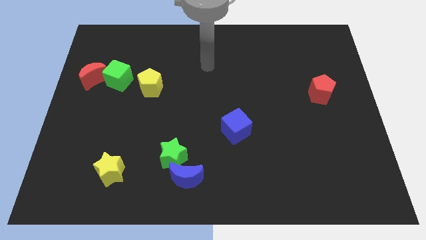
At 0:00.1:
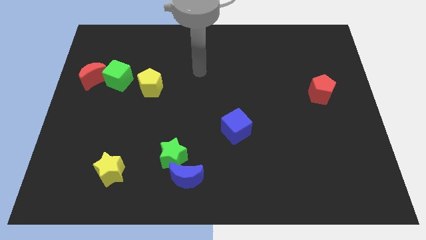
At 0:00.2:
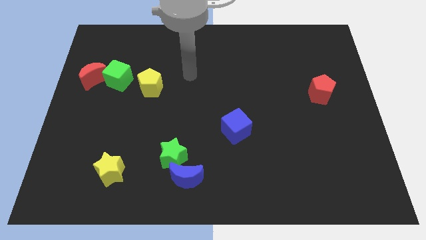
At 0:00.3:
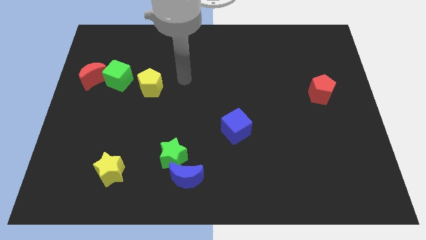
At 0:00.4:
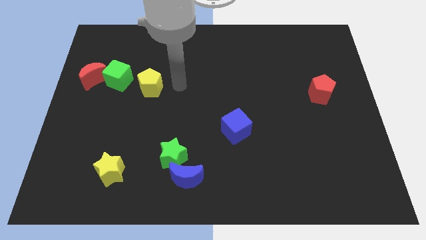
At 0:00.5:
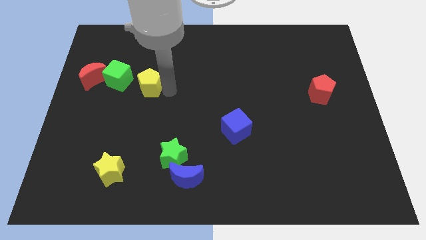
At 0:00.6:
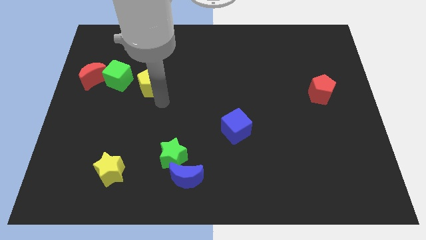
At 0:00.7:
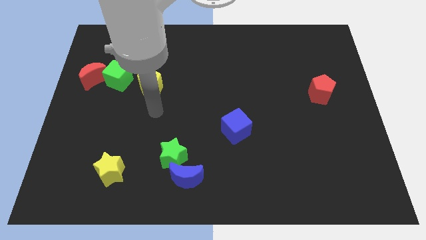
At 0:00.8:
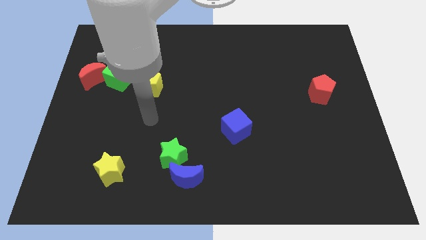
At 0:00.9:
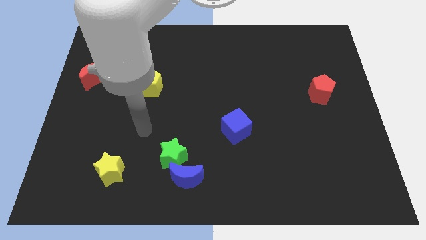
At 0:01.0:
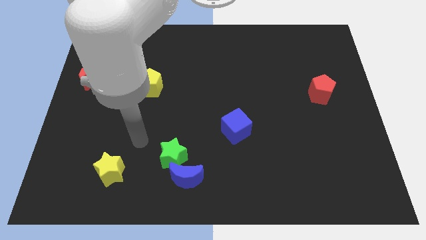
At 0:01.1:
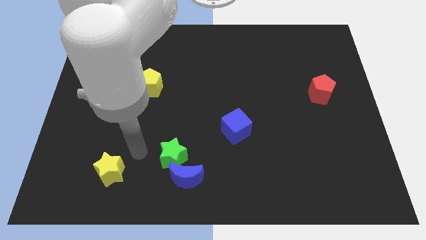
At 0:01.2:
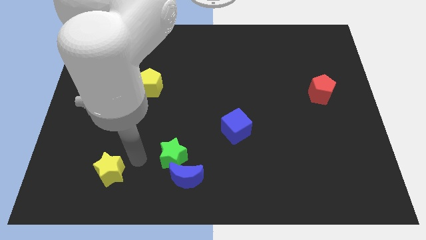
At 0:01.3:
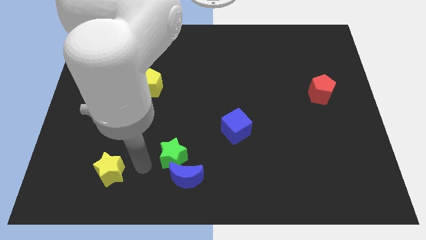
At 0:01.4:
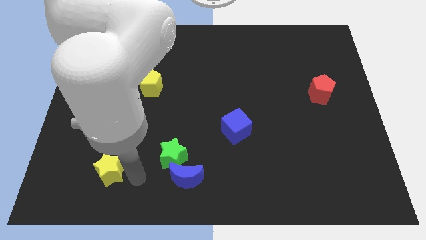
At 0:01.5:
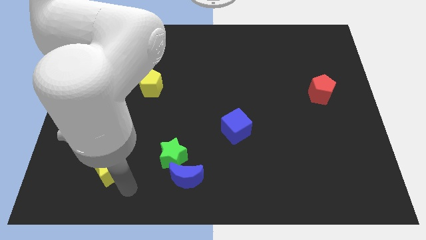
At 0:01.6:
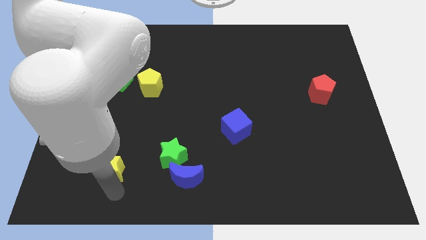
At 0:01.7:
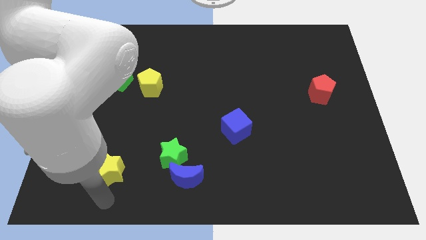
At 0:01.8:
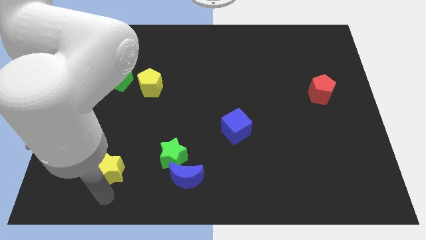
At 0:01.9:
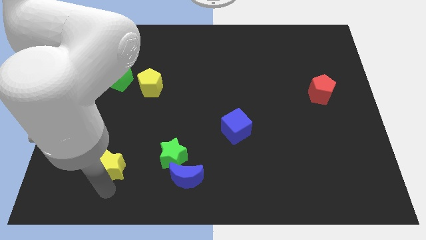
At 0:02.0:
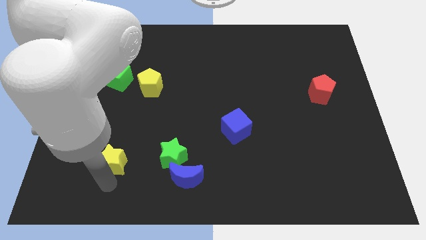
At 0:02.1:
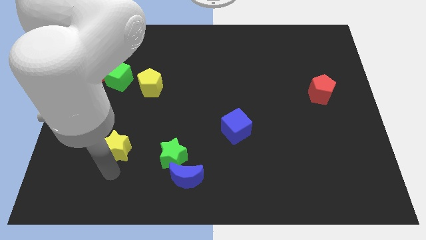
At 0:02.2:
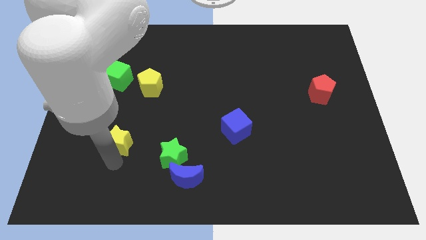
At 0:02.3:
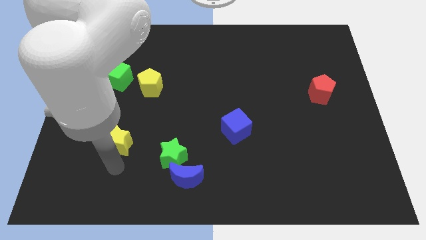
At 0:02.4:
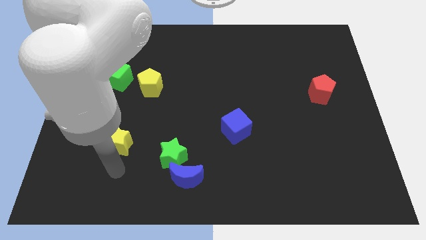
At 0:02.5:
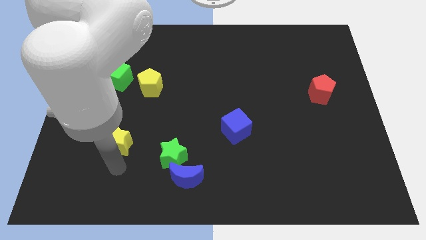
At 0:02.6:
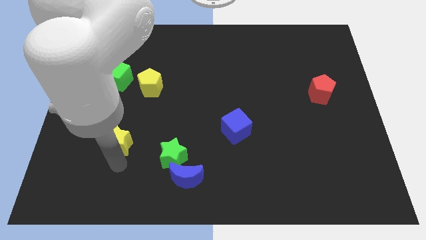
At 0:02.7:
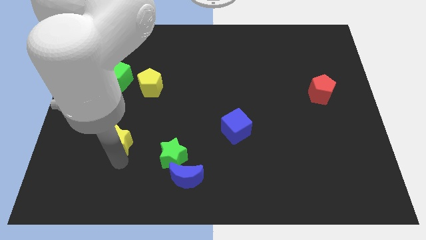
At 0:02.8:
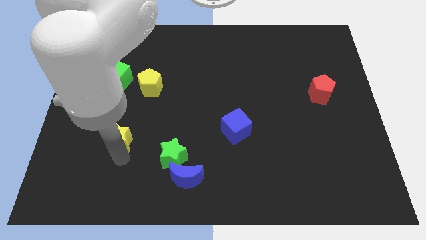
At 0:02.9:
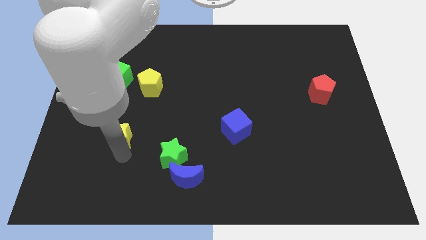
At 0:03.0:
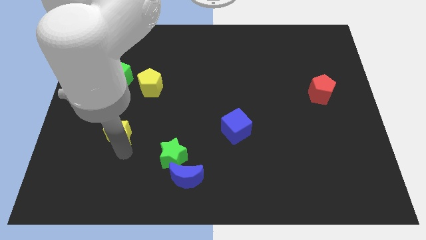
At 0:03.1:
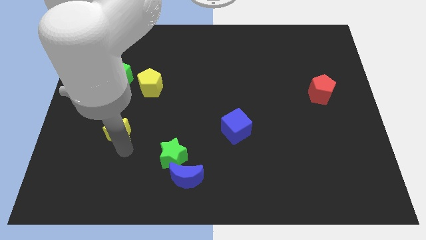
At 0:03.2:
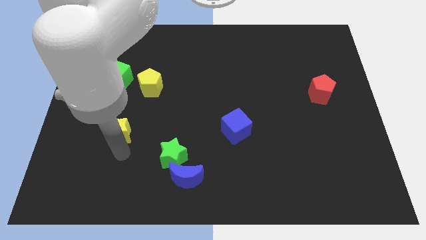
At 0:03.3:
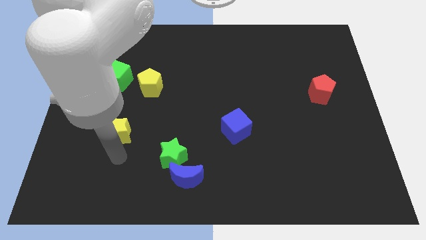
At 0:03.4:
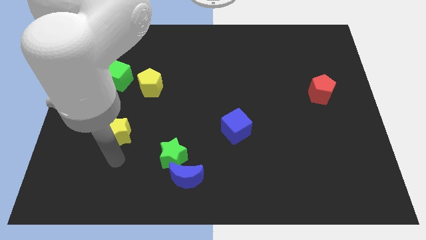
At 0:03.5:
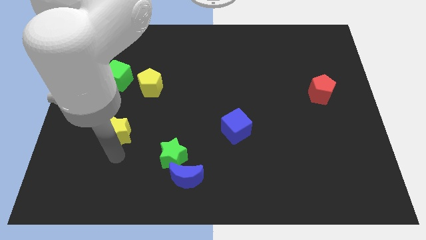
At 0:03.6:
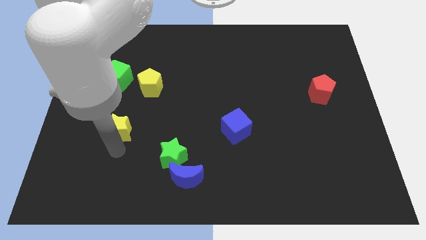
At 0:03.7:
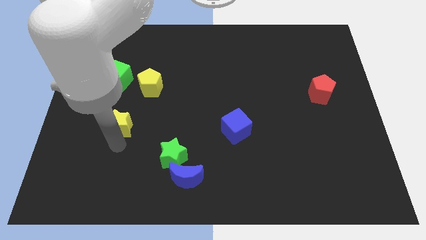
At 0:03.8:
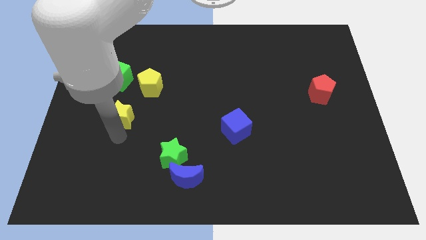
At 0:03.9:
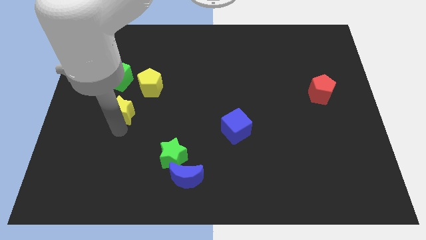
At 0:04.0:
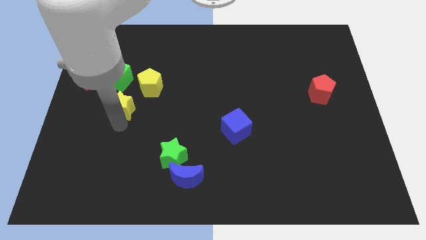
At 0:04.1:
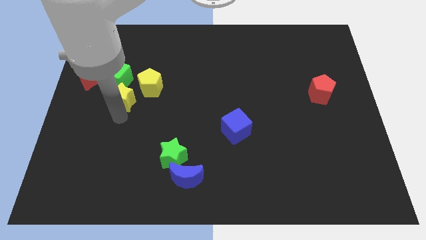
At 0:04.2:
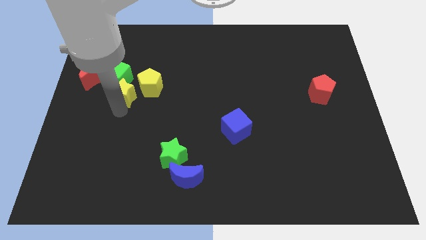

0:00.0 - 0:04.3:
move the yellow star up

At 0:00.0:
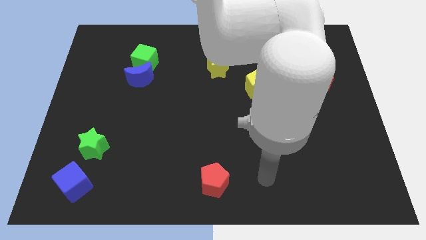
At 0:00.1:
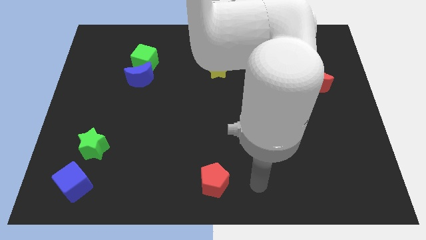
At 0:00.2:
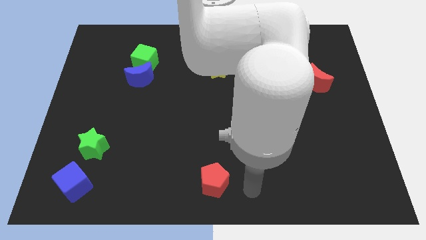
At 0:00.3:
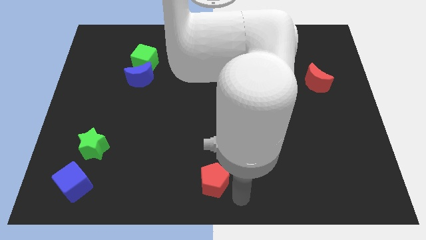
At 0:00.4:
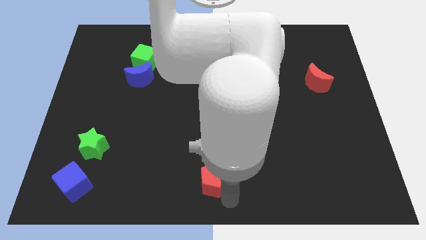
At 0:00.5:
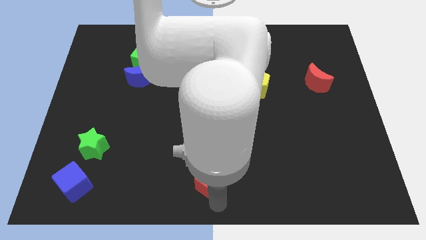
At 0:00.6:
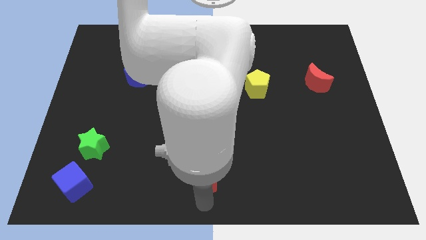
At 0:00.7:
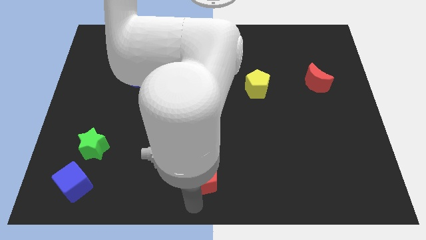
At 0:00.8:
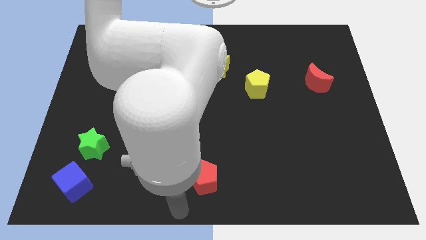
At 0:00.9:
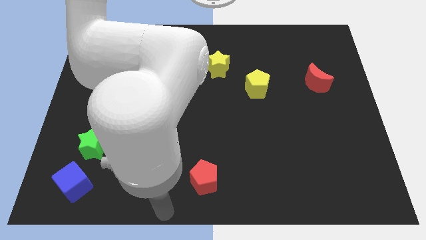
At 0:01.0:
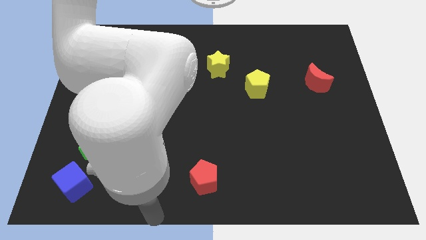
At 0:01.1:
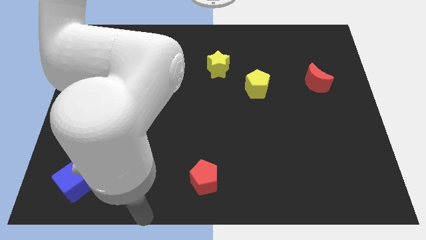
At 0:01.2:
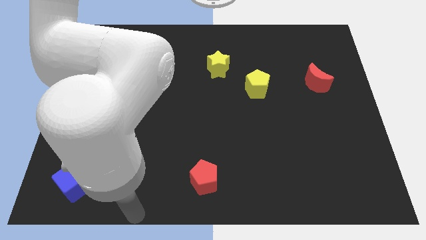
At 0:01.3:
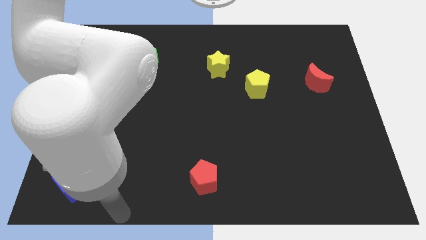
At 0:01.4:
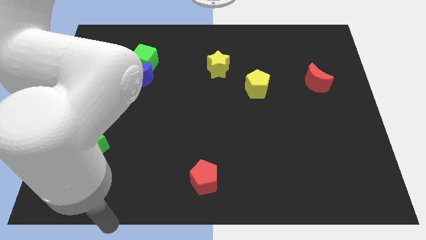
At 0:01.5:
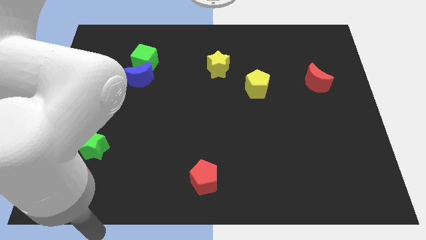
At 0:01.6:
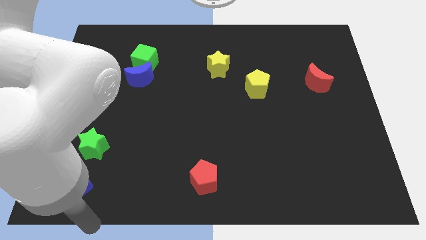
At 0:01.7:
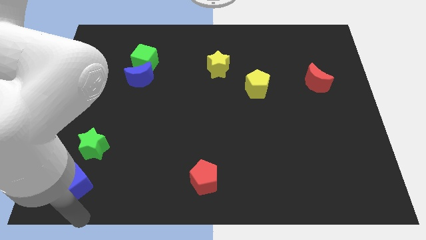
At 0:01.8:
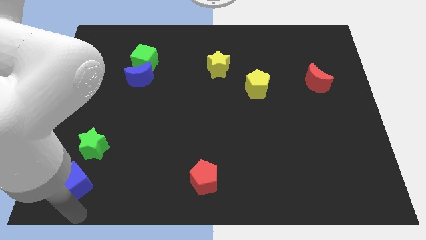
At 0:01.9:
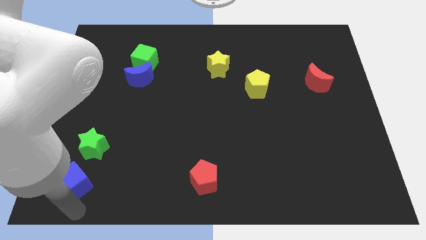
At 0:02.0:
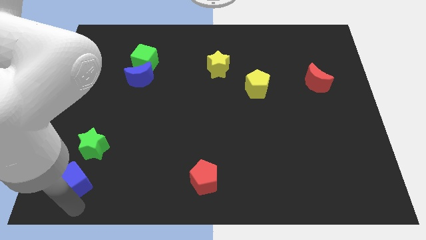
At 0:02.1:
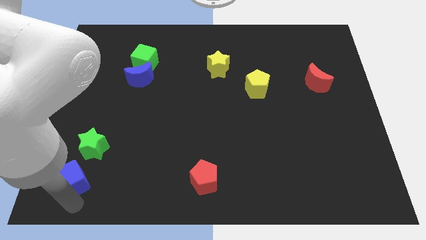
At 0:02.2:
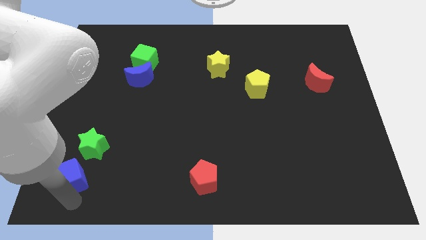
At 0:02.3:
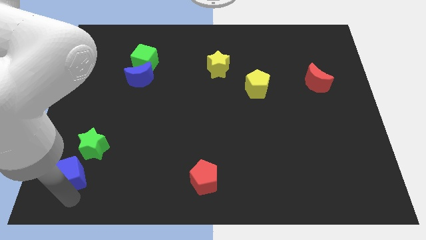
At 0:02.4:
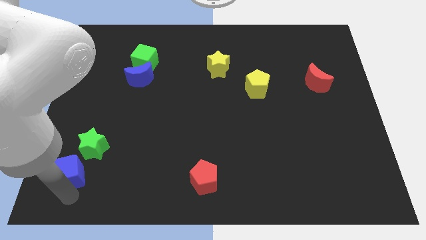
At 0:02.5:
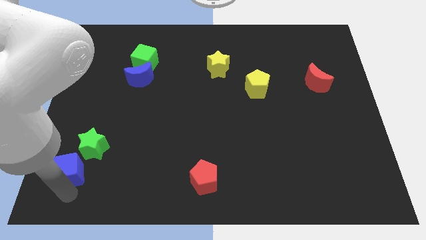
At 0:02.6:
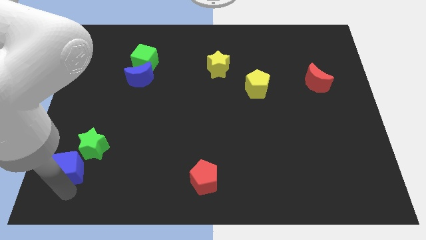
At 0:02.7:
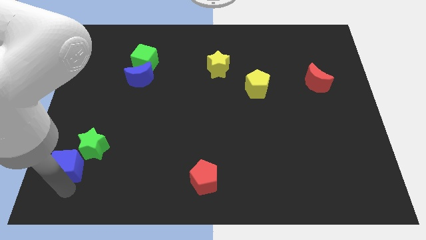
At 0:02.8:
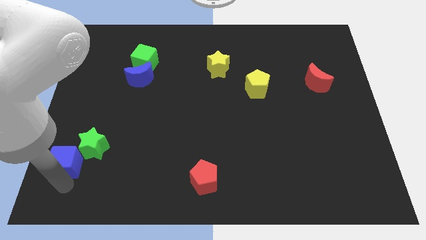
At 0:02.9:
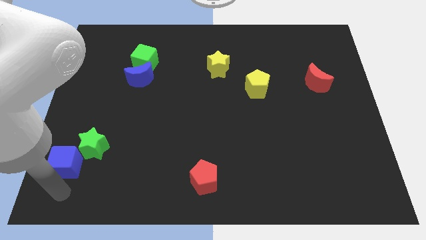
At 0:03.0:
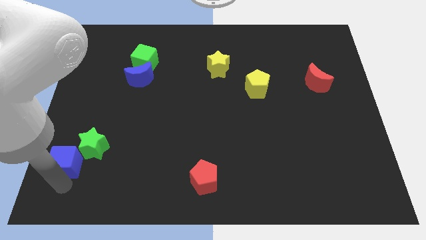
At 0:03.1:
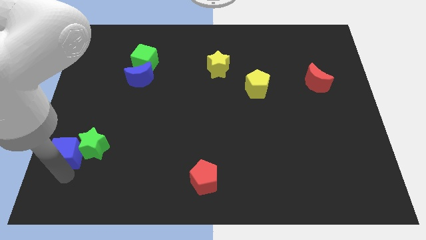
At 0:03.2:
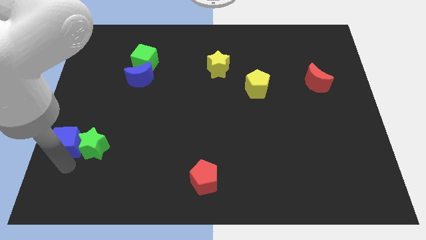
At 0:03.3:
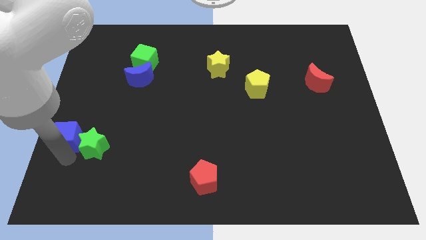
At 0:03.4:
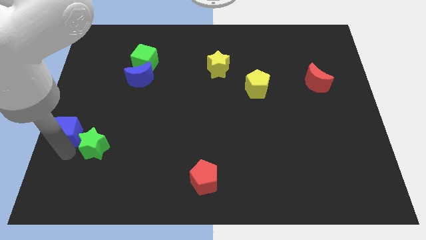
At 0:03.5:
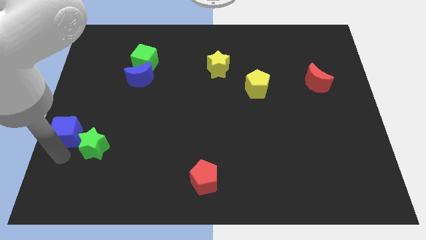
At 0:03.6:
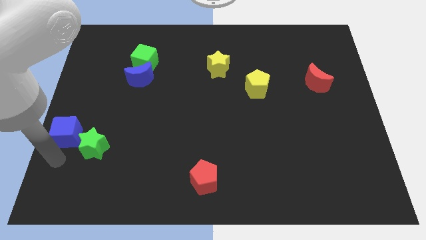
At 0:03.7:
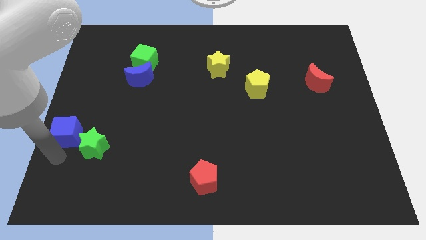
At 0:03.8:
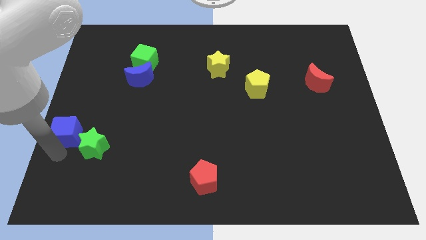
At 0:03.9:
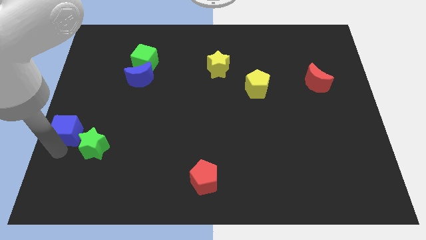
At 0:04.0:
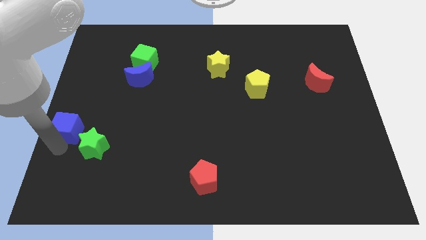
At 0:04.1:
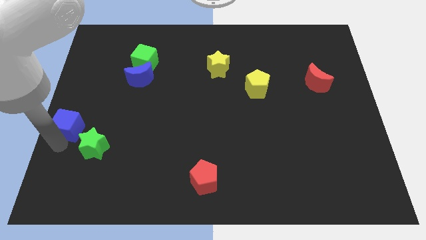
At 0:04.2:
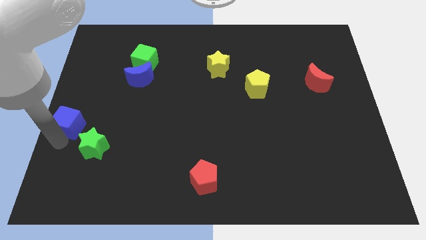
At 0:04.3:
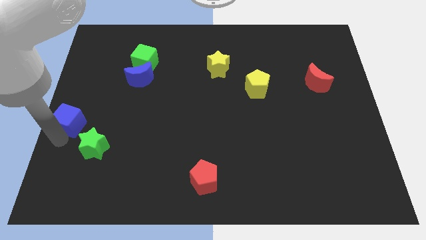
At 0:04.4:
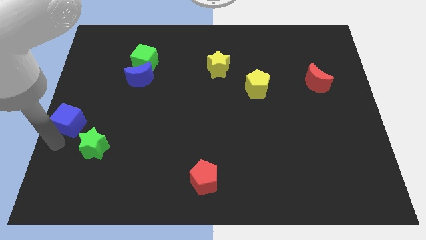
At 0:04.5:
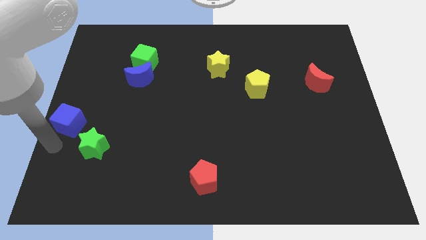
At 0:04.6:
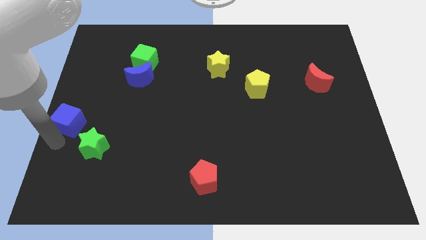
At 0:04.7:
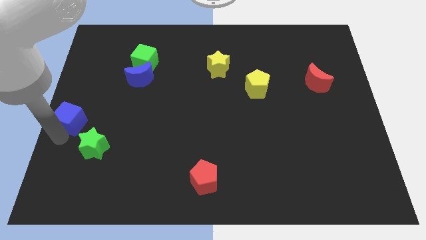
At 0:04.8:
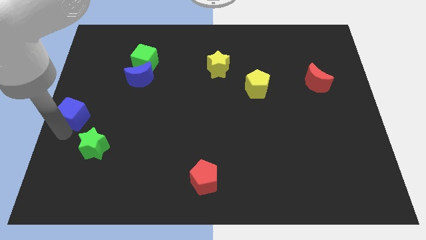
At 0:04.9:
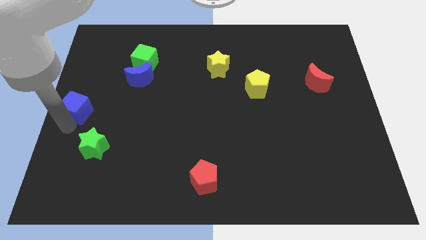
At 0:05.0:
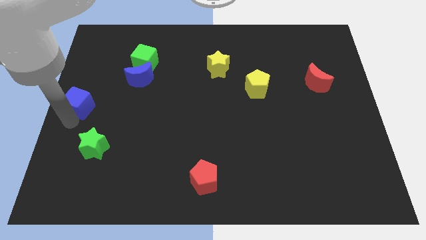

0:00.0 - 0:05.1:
push the blue cube up
